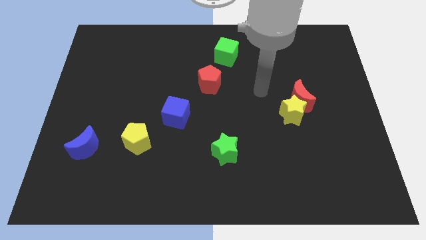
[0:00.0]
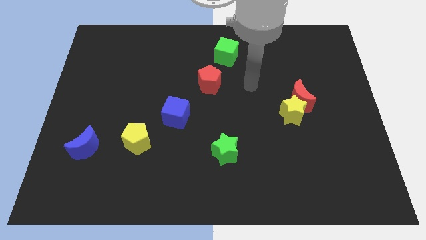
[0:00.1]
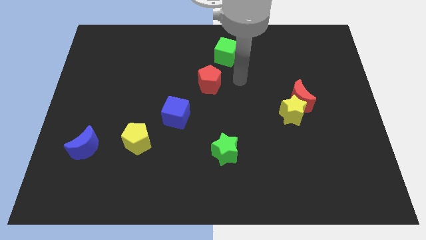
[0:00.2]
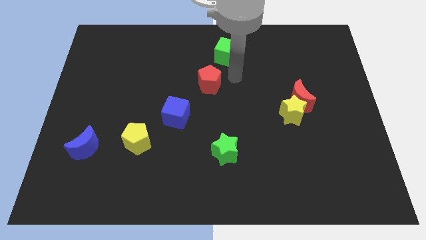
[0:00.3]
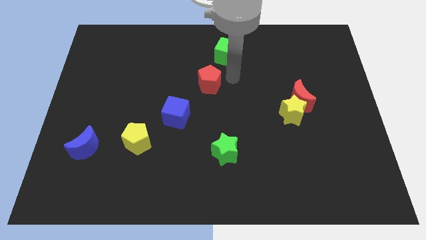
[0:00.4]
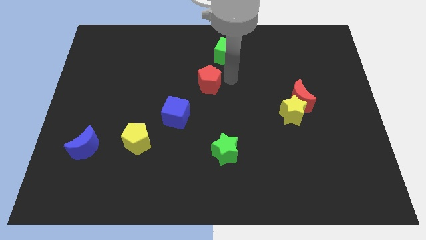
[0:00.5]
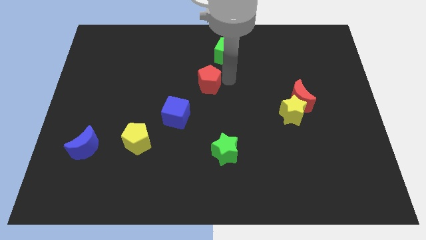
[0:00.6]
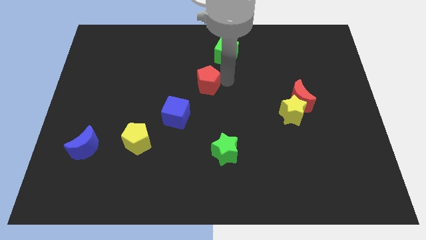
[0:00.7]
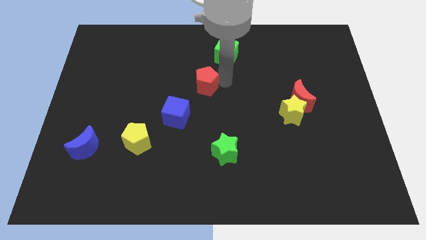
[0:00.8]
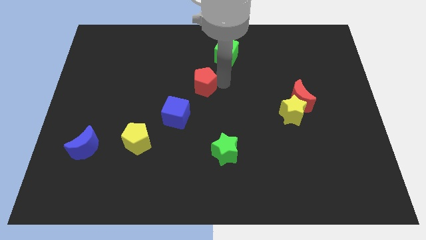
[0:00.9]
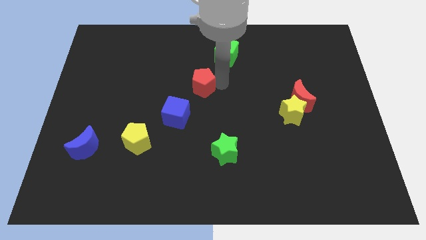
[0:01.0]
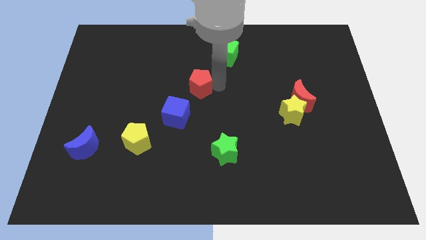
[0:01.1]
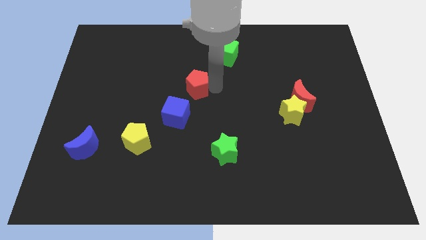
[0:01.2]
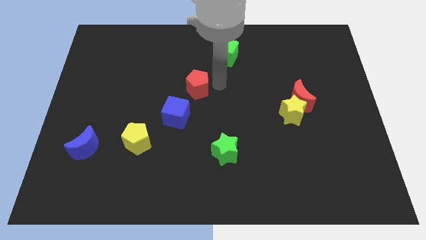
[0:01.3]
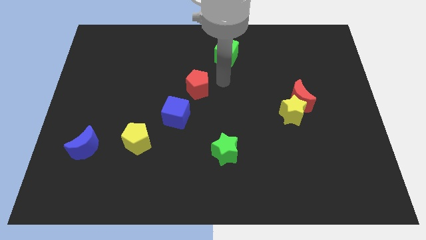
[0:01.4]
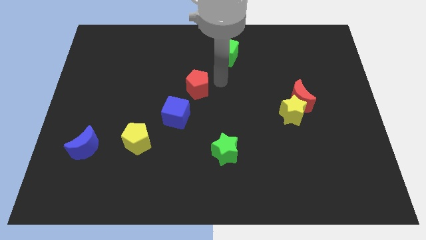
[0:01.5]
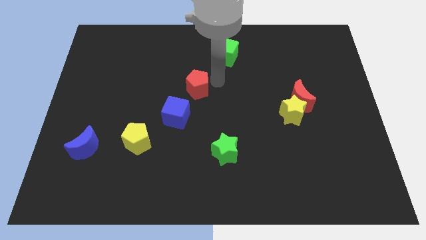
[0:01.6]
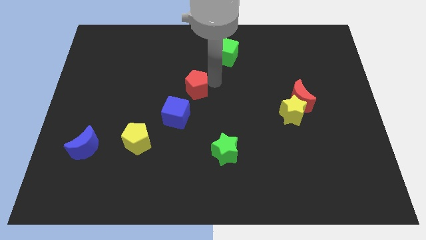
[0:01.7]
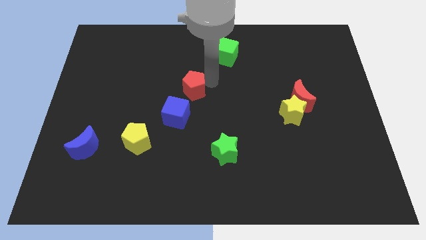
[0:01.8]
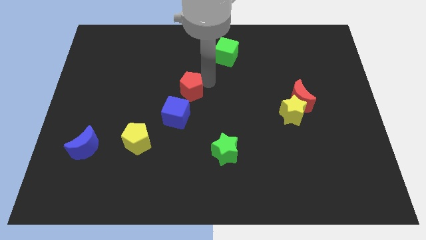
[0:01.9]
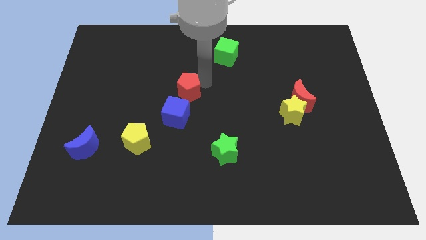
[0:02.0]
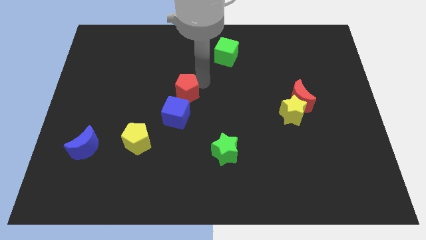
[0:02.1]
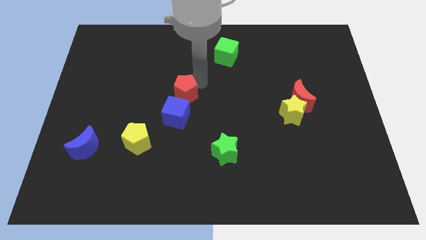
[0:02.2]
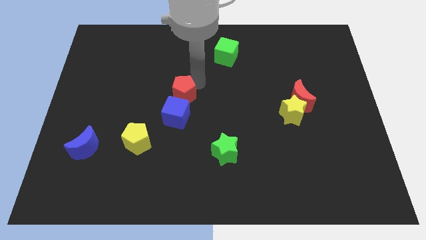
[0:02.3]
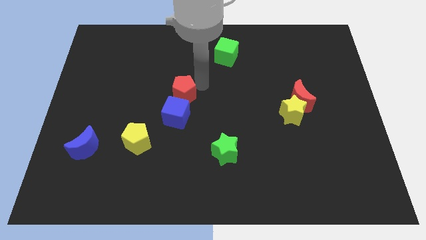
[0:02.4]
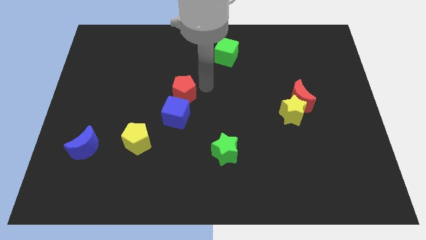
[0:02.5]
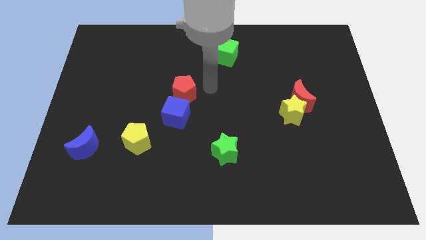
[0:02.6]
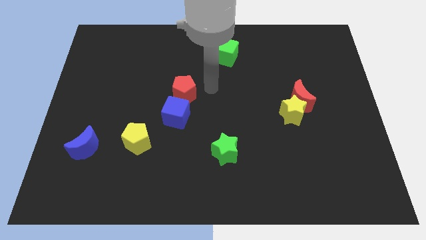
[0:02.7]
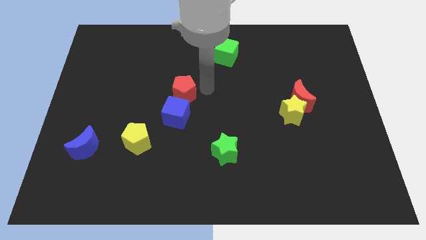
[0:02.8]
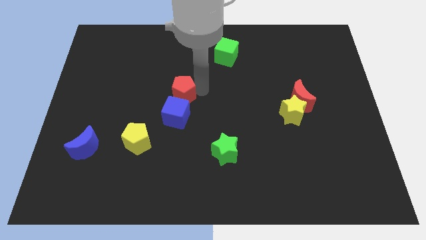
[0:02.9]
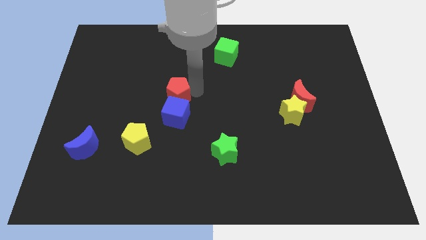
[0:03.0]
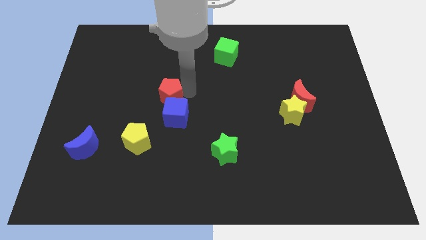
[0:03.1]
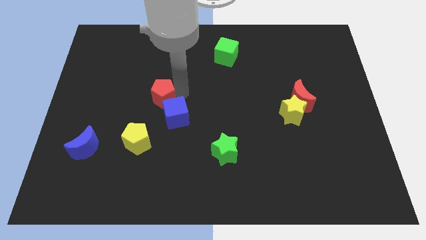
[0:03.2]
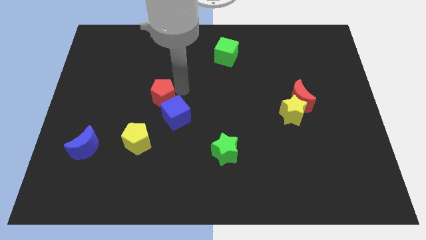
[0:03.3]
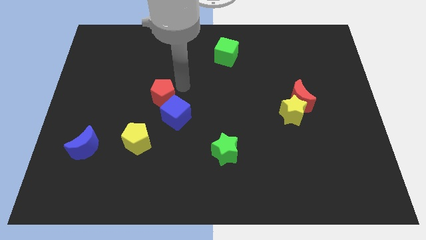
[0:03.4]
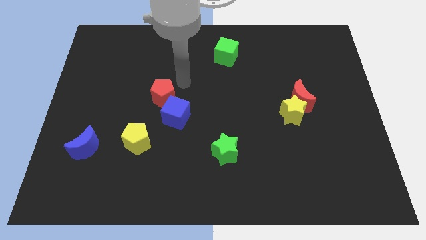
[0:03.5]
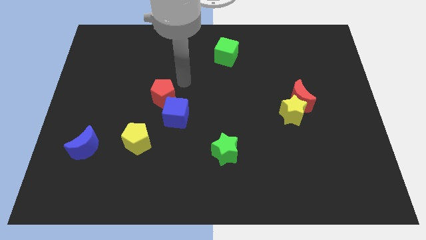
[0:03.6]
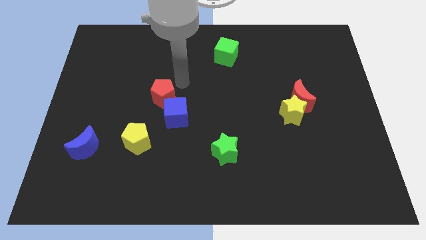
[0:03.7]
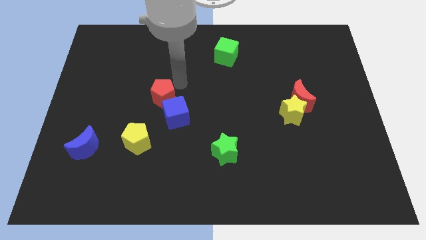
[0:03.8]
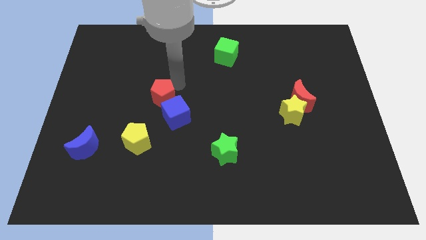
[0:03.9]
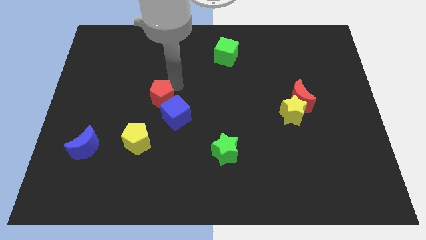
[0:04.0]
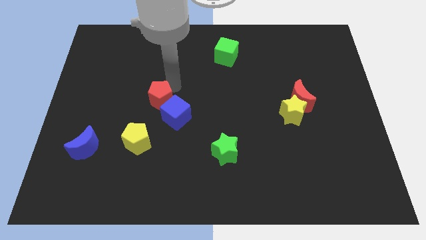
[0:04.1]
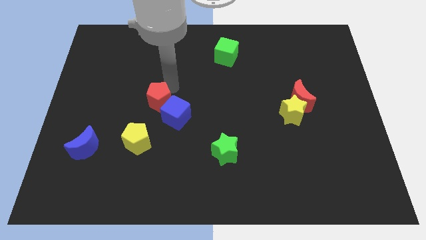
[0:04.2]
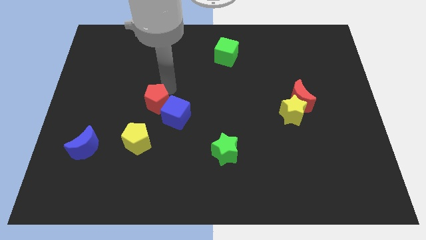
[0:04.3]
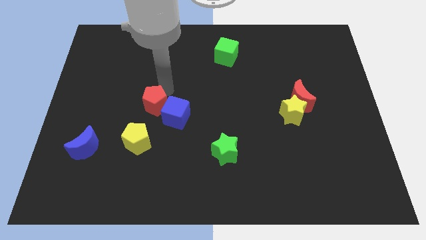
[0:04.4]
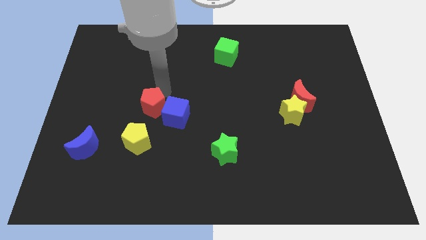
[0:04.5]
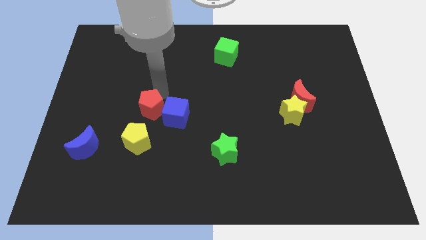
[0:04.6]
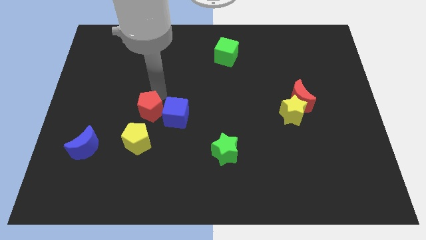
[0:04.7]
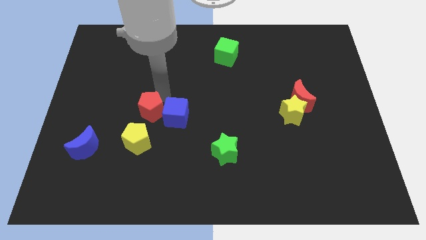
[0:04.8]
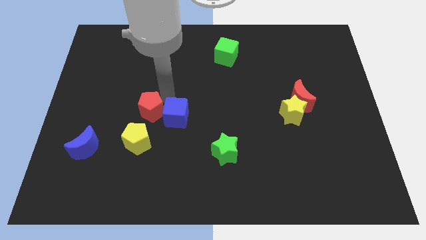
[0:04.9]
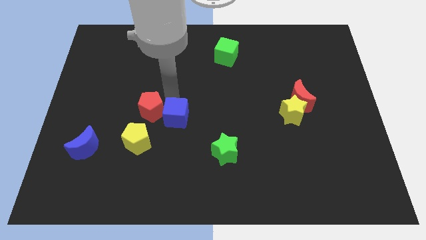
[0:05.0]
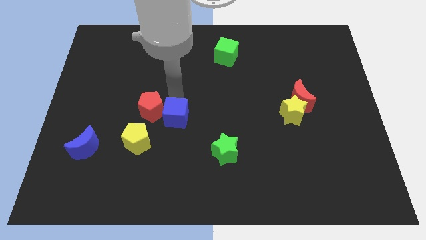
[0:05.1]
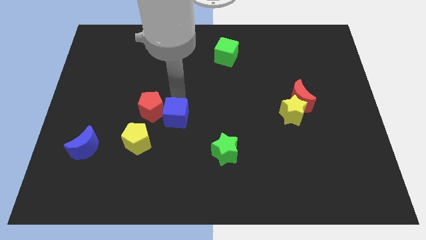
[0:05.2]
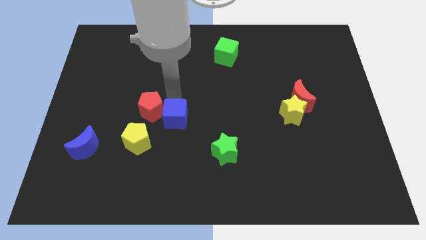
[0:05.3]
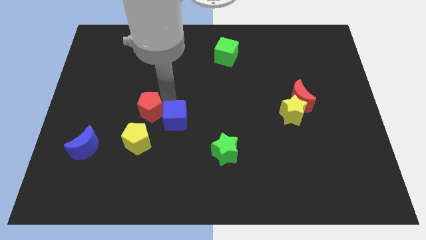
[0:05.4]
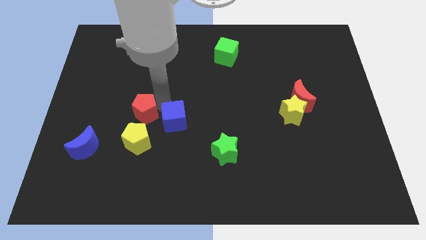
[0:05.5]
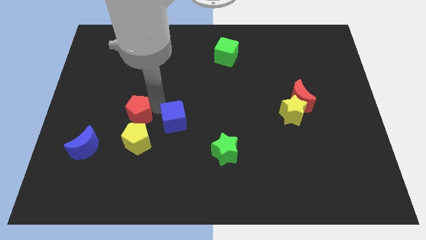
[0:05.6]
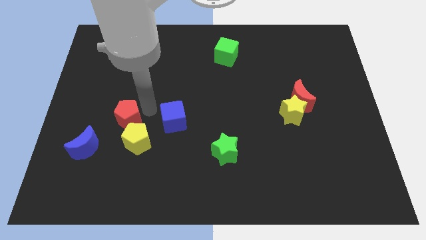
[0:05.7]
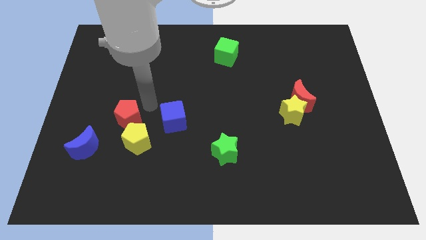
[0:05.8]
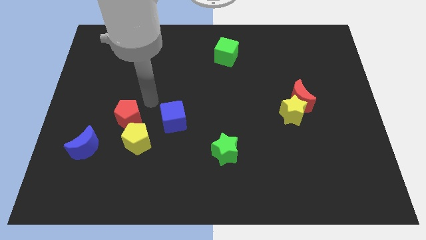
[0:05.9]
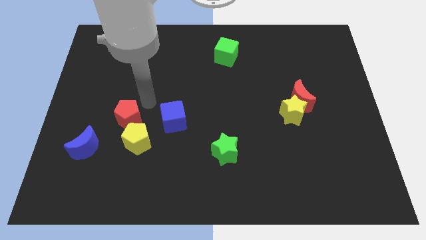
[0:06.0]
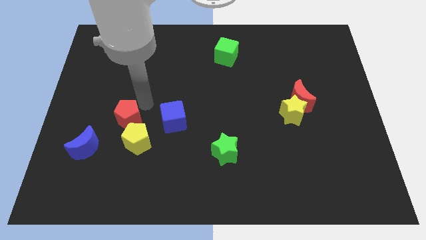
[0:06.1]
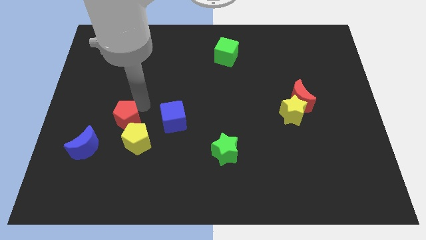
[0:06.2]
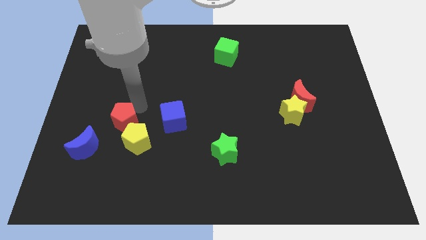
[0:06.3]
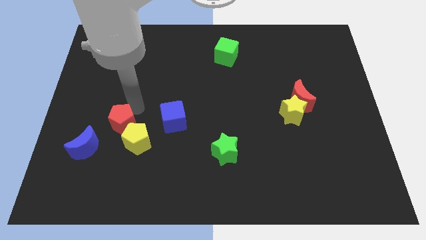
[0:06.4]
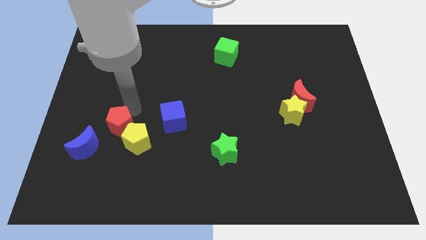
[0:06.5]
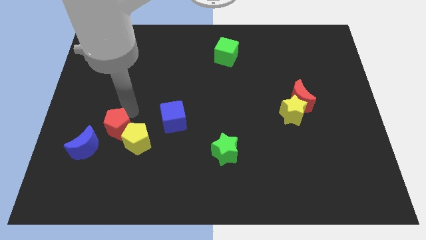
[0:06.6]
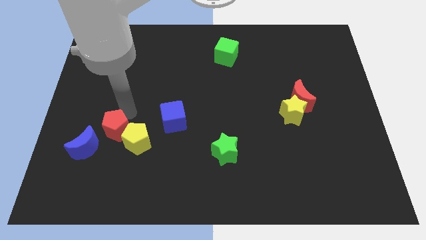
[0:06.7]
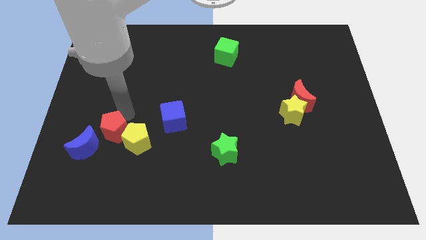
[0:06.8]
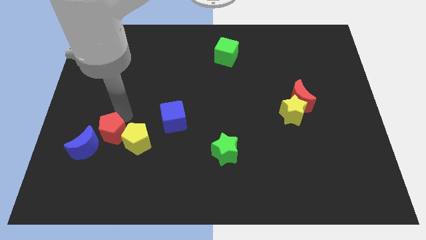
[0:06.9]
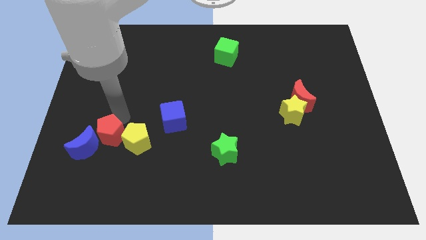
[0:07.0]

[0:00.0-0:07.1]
push the red pentagon next to the blue moon
